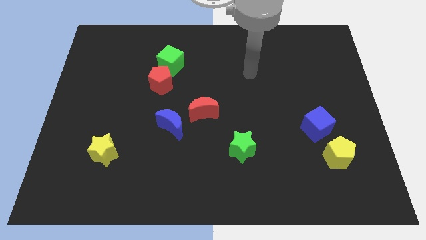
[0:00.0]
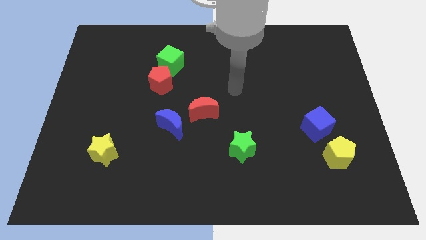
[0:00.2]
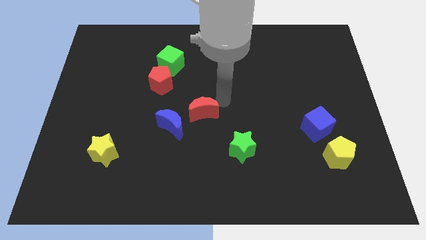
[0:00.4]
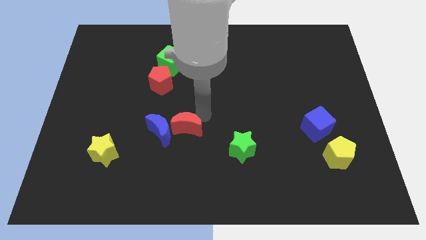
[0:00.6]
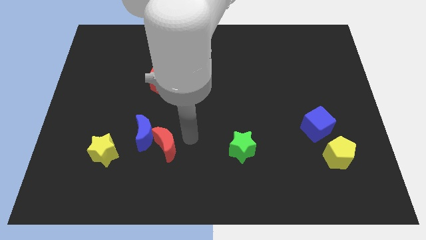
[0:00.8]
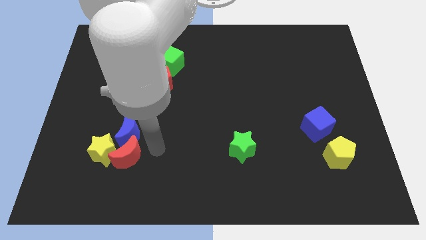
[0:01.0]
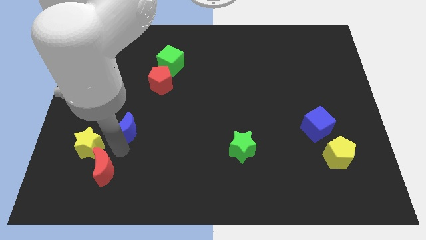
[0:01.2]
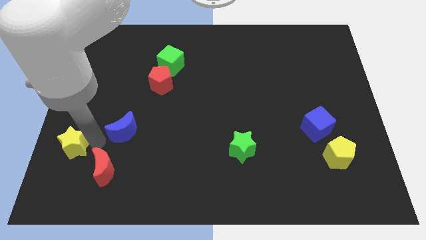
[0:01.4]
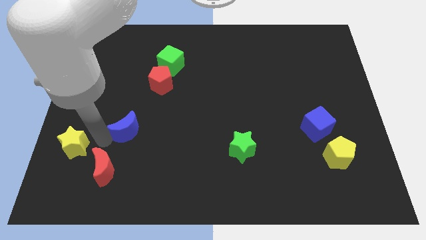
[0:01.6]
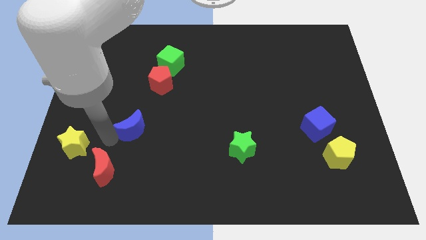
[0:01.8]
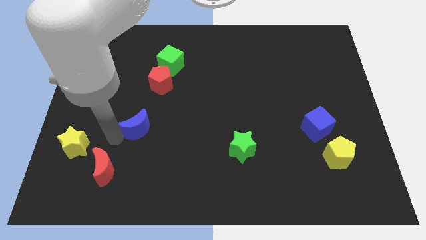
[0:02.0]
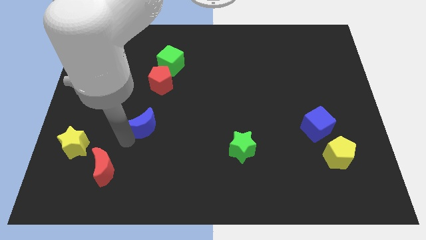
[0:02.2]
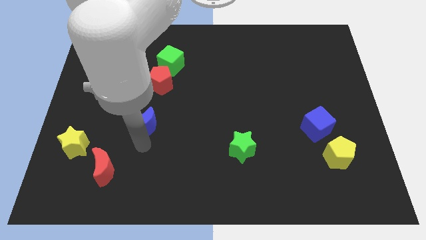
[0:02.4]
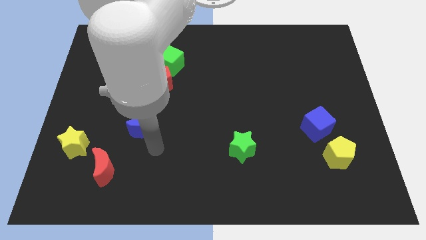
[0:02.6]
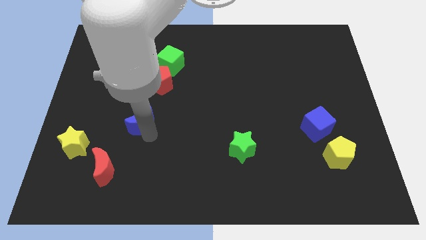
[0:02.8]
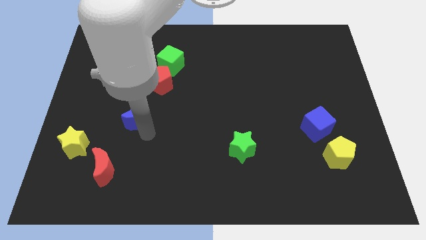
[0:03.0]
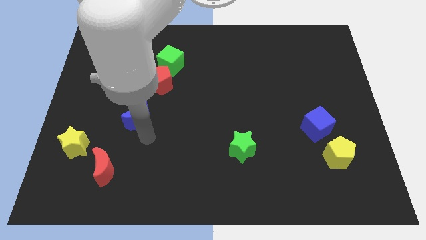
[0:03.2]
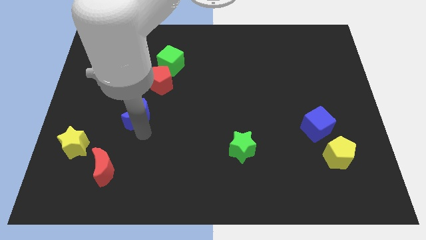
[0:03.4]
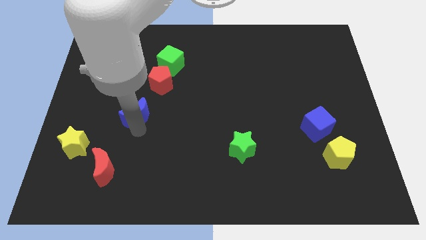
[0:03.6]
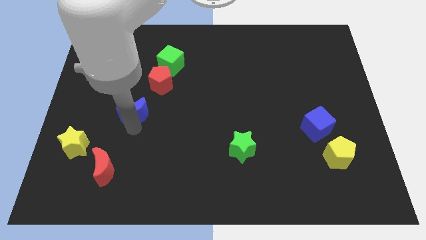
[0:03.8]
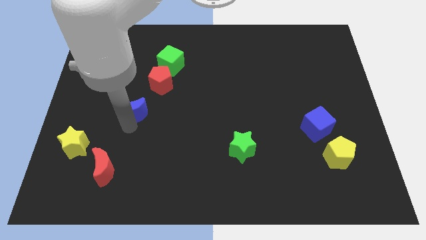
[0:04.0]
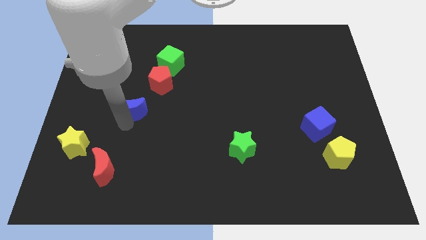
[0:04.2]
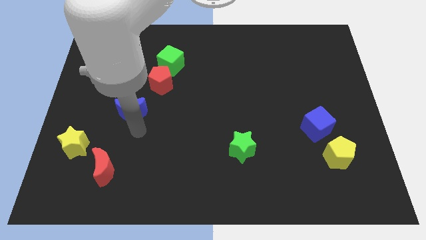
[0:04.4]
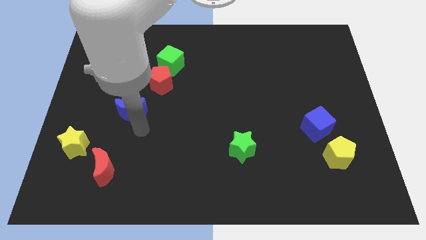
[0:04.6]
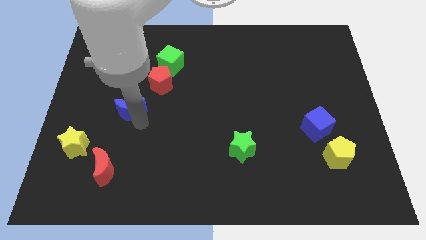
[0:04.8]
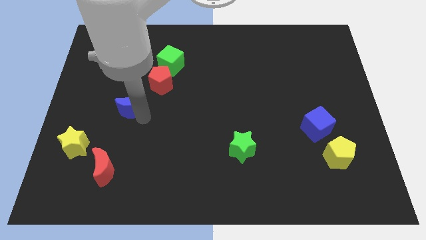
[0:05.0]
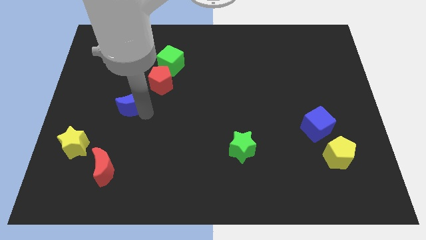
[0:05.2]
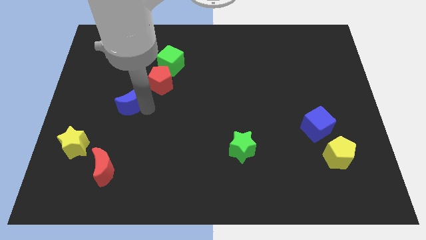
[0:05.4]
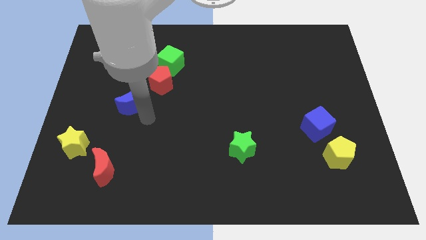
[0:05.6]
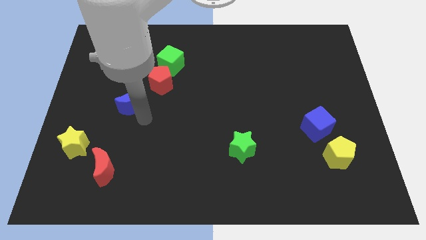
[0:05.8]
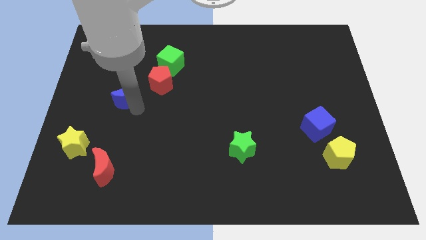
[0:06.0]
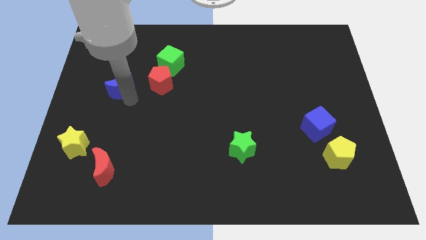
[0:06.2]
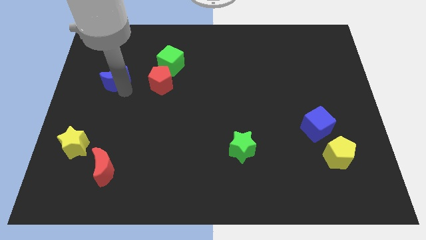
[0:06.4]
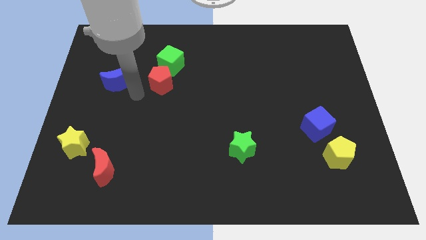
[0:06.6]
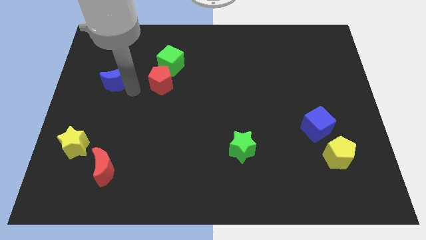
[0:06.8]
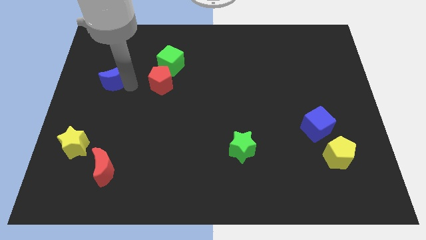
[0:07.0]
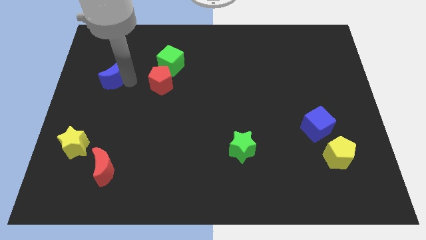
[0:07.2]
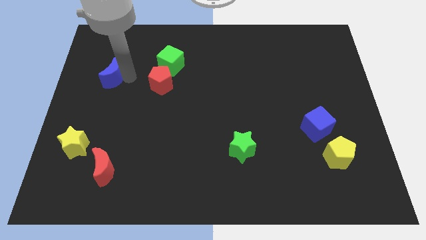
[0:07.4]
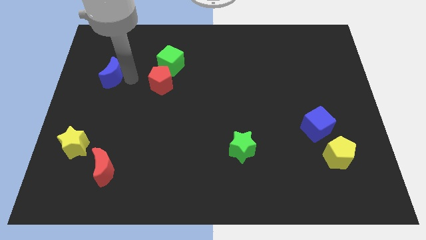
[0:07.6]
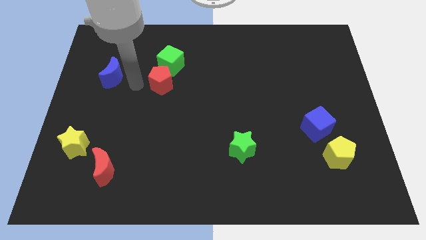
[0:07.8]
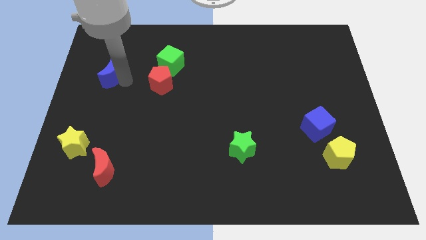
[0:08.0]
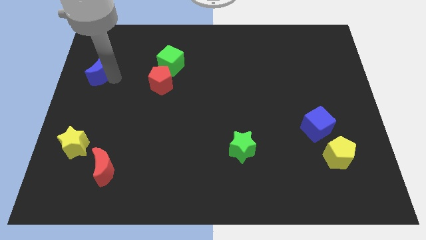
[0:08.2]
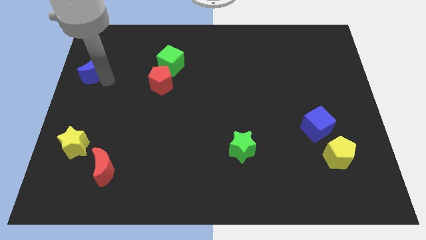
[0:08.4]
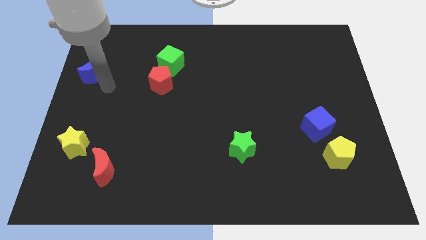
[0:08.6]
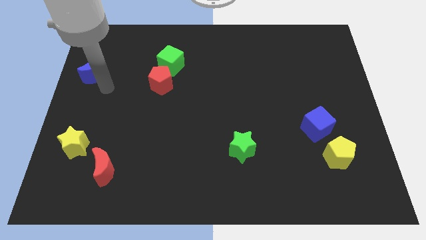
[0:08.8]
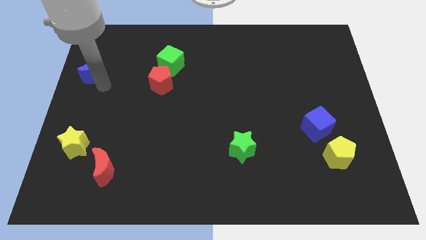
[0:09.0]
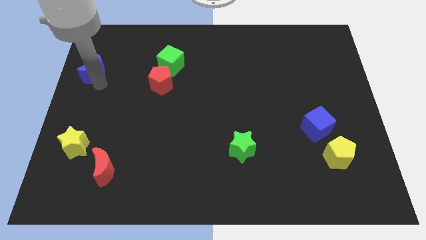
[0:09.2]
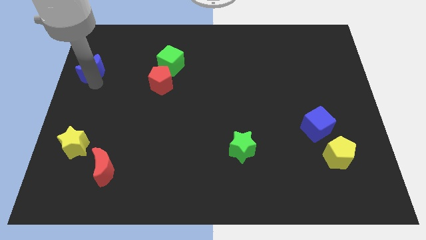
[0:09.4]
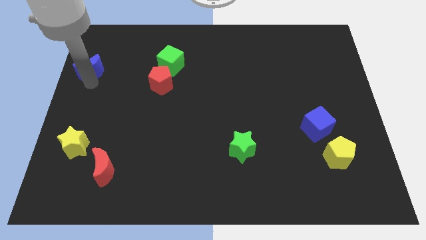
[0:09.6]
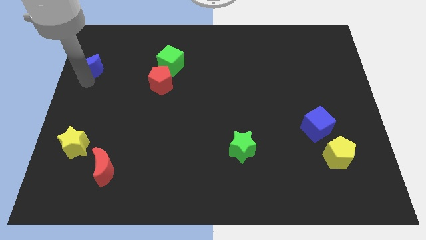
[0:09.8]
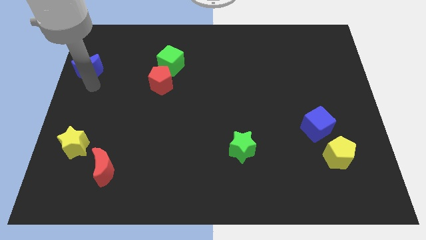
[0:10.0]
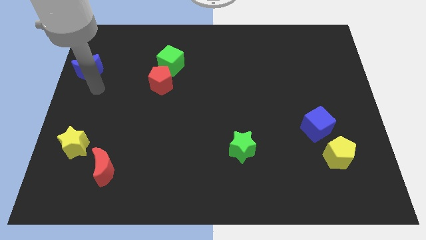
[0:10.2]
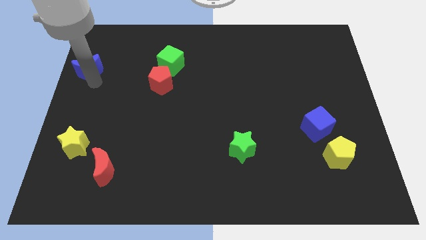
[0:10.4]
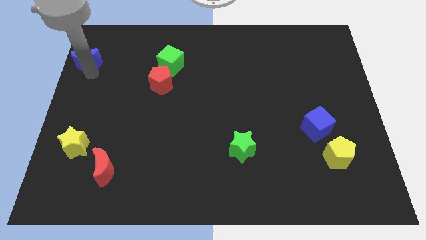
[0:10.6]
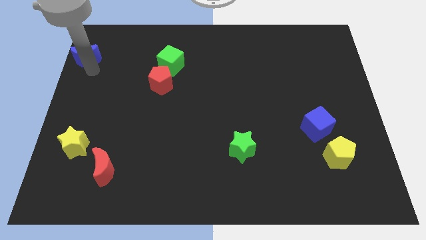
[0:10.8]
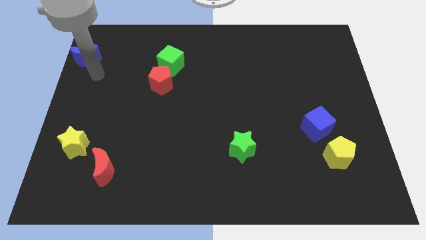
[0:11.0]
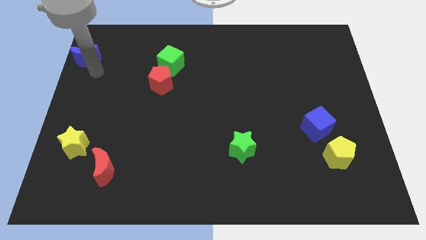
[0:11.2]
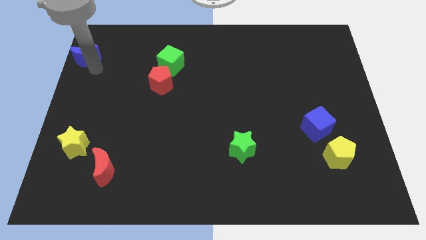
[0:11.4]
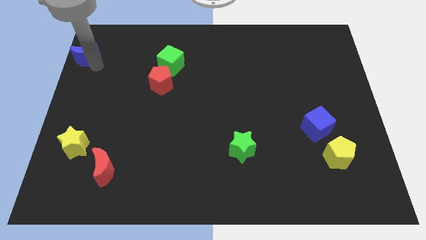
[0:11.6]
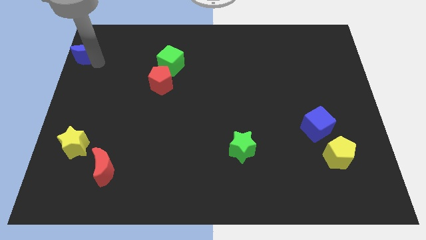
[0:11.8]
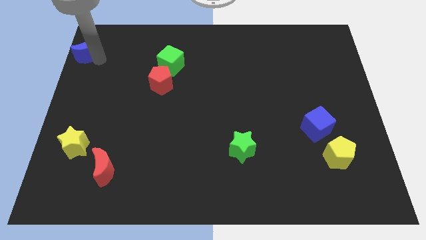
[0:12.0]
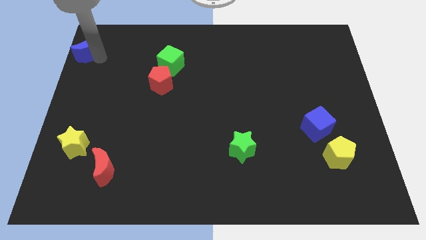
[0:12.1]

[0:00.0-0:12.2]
push the blue moon to the top left

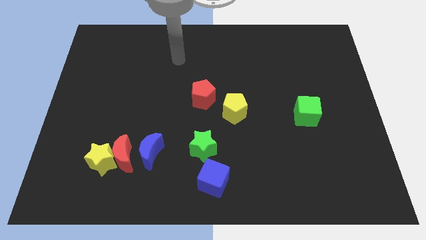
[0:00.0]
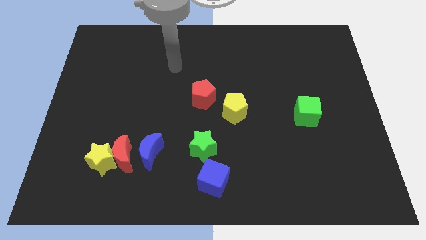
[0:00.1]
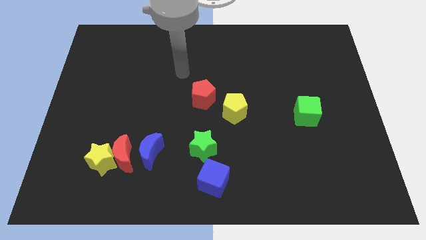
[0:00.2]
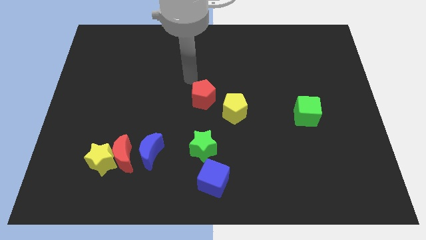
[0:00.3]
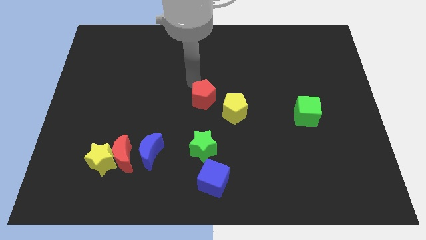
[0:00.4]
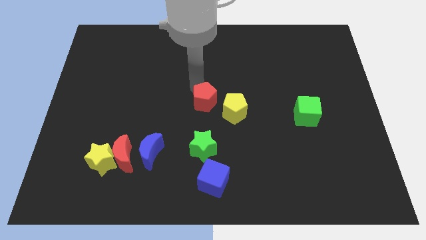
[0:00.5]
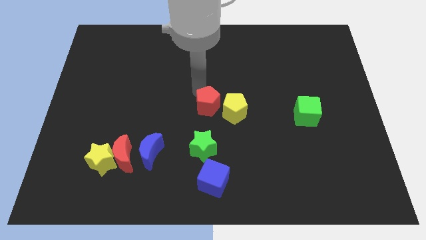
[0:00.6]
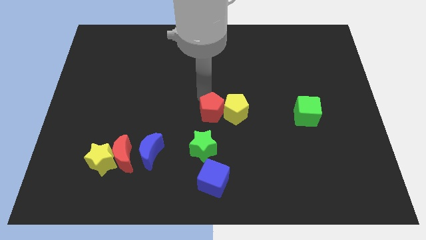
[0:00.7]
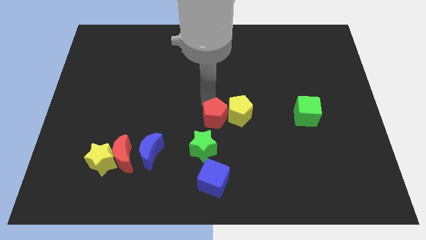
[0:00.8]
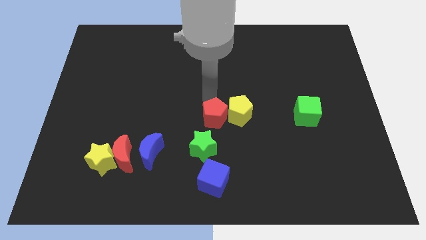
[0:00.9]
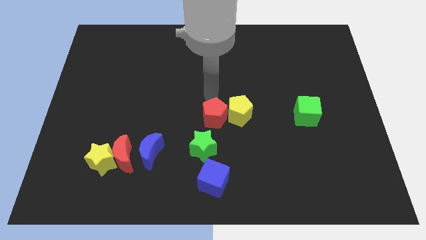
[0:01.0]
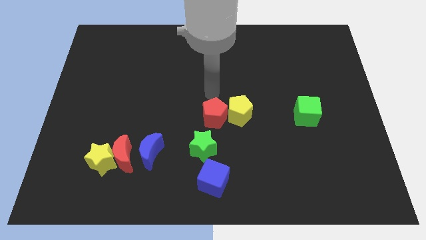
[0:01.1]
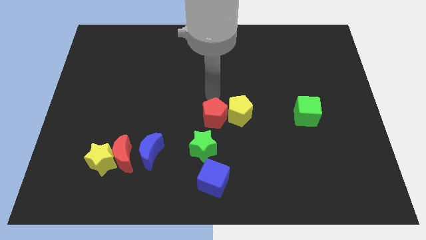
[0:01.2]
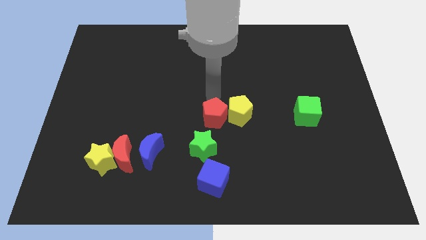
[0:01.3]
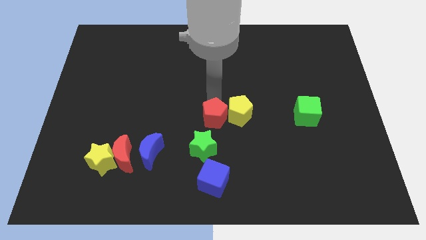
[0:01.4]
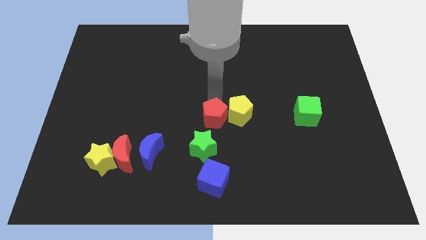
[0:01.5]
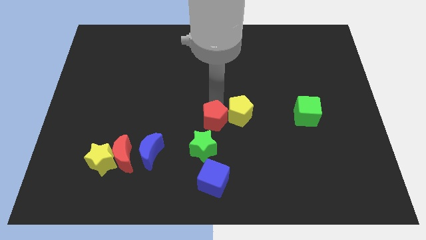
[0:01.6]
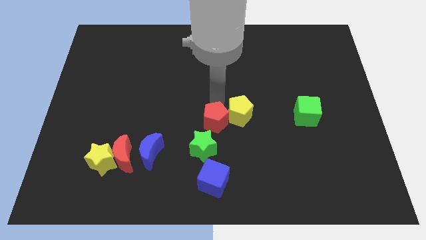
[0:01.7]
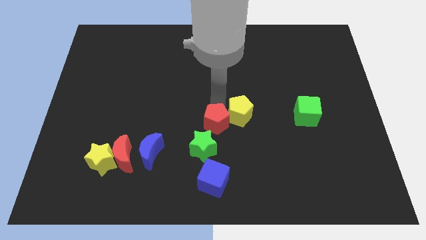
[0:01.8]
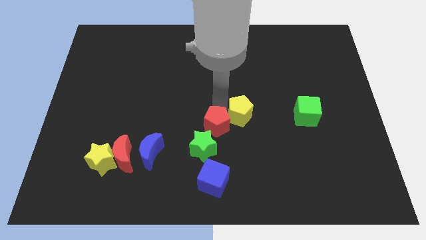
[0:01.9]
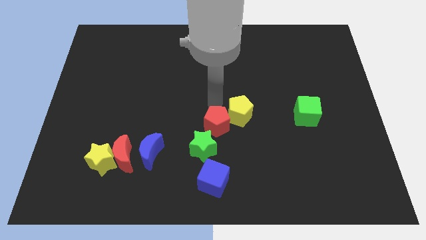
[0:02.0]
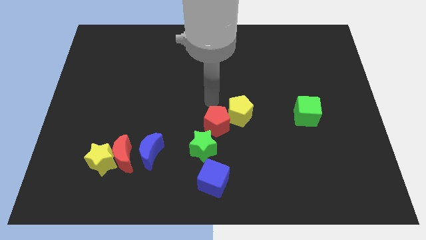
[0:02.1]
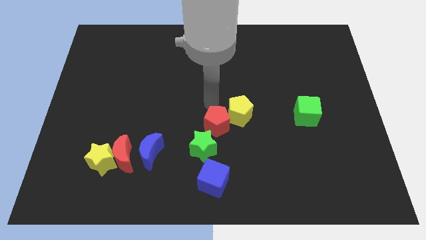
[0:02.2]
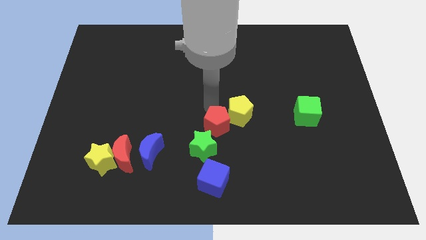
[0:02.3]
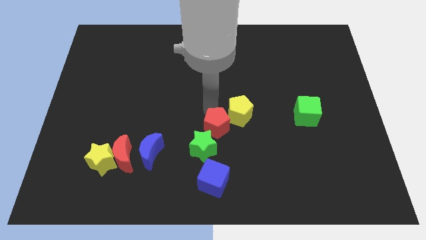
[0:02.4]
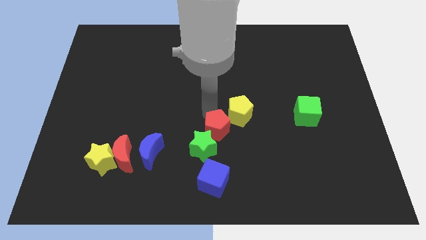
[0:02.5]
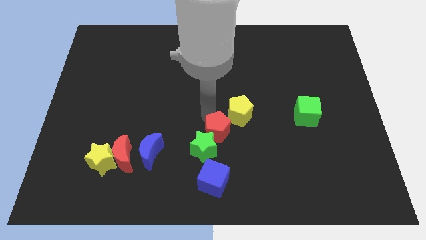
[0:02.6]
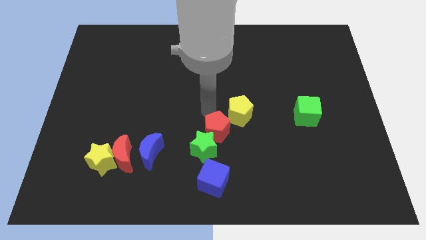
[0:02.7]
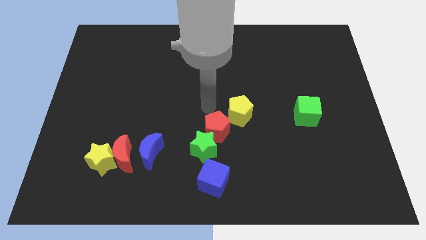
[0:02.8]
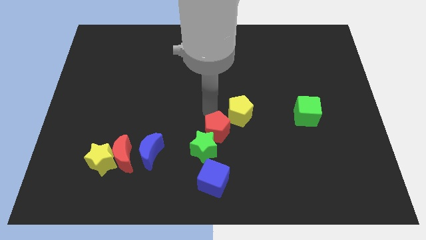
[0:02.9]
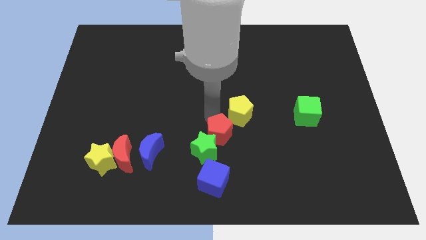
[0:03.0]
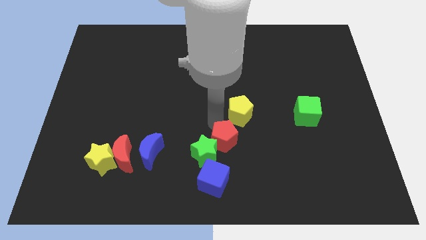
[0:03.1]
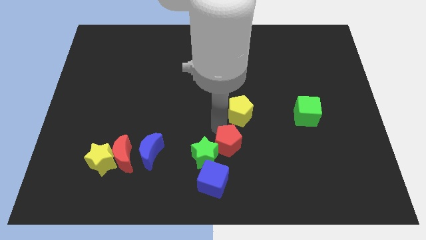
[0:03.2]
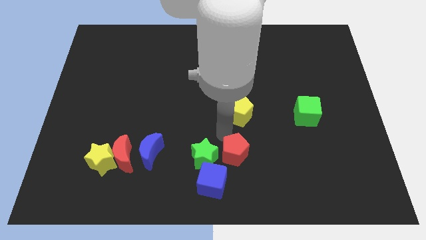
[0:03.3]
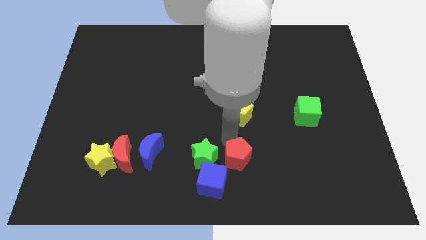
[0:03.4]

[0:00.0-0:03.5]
move the red pentagon to the bottom
